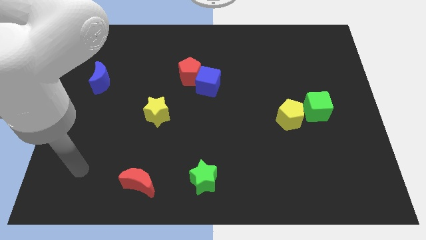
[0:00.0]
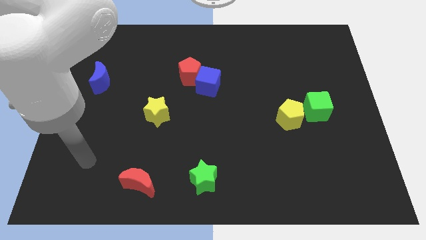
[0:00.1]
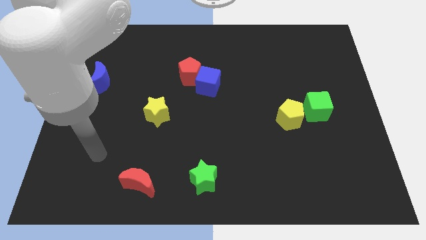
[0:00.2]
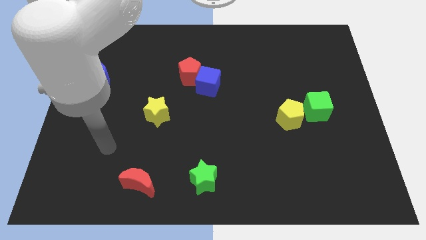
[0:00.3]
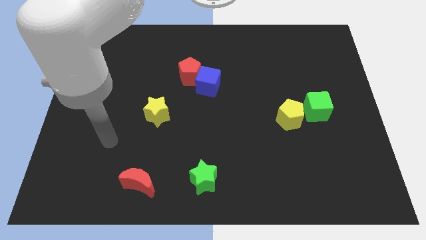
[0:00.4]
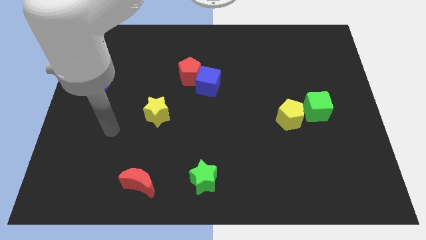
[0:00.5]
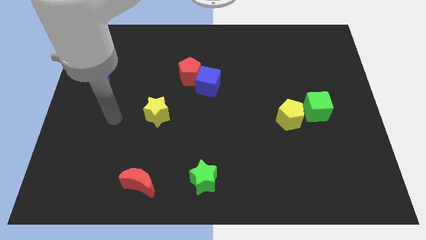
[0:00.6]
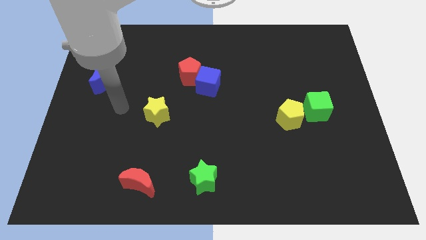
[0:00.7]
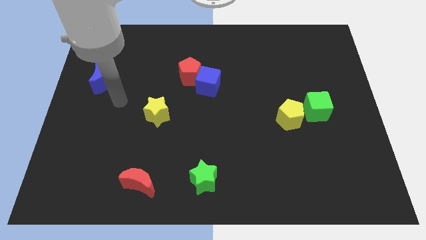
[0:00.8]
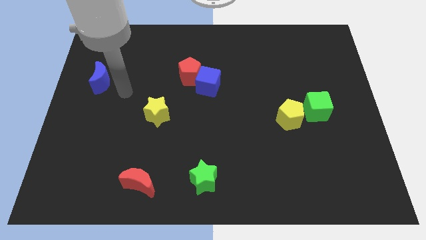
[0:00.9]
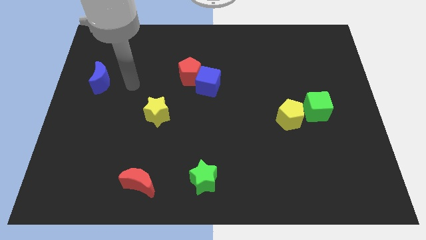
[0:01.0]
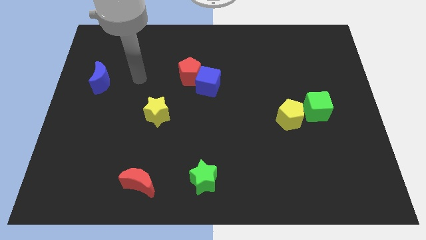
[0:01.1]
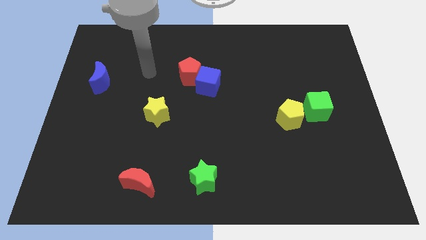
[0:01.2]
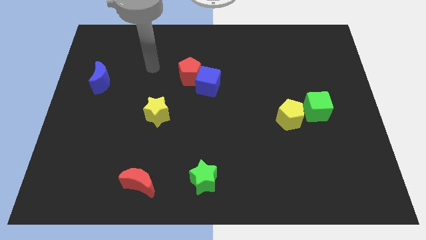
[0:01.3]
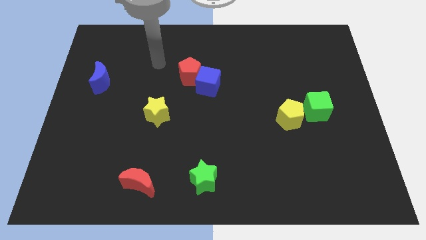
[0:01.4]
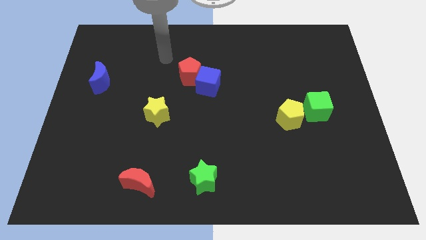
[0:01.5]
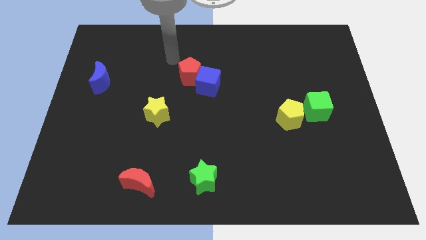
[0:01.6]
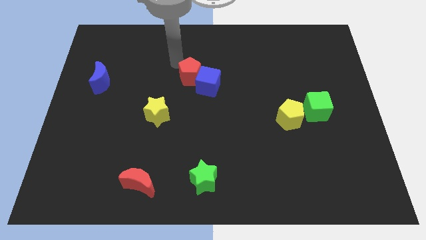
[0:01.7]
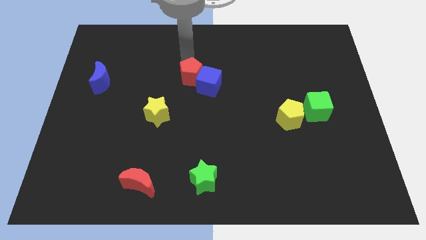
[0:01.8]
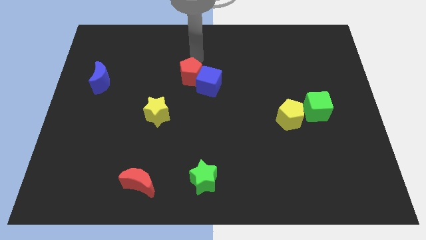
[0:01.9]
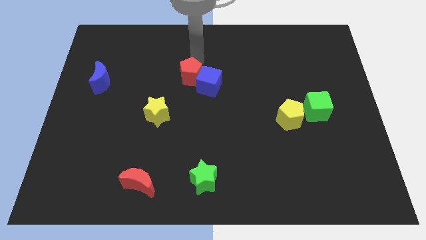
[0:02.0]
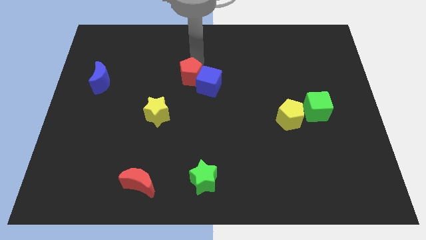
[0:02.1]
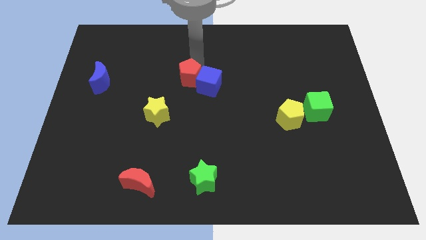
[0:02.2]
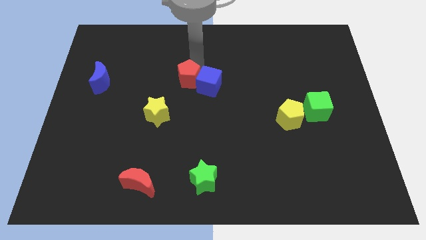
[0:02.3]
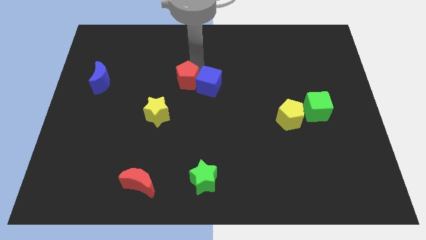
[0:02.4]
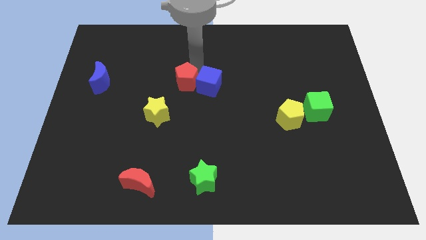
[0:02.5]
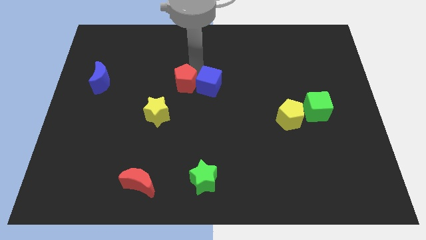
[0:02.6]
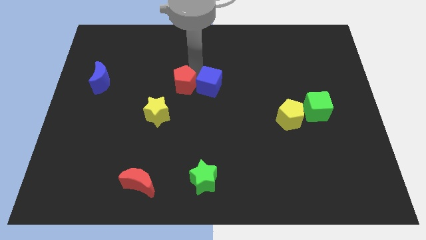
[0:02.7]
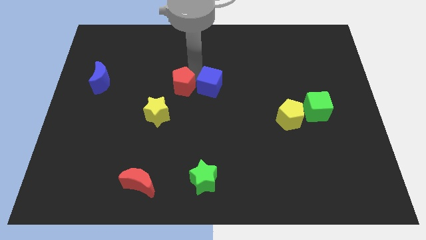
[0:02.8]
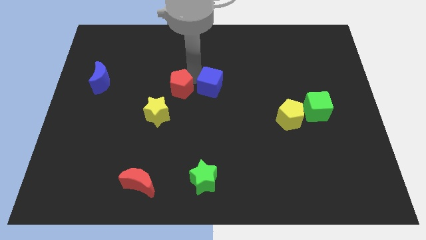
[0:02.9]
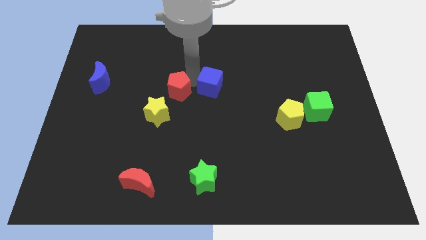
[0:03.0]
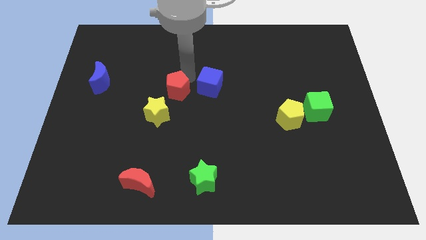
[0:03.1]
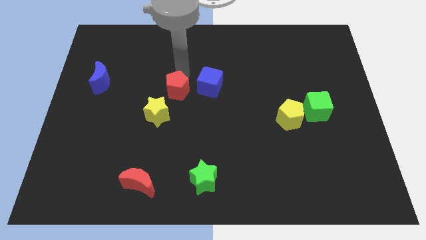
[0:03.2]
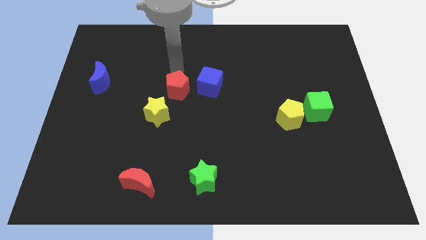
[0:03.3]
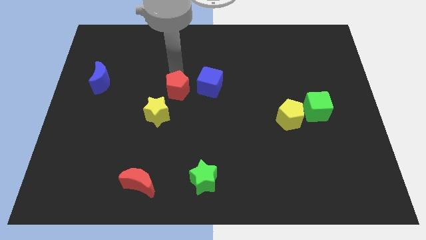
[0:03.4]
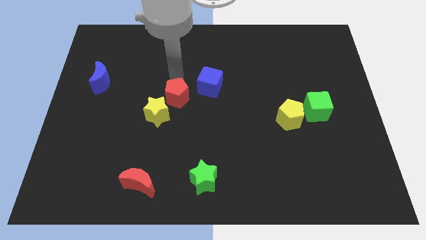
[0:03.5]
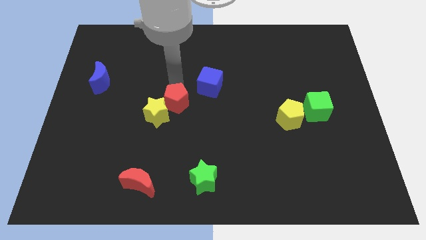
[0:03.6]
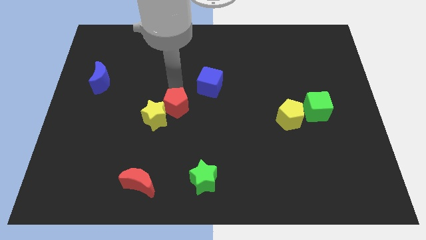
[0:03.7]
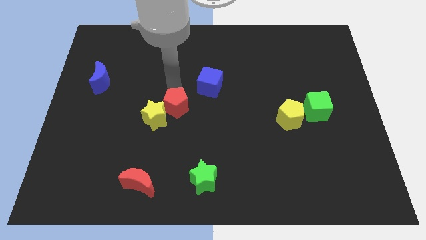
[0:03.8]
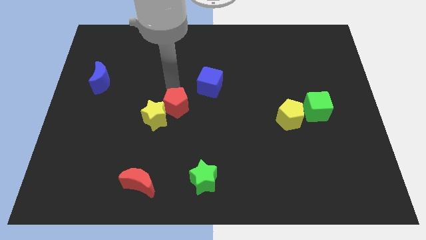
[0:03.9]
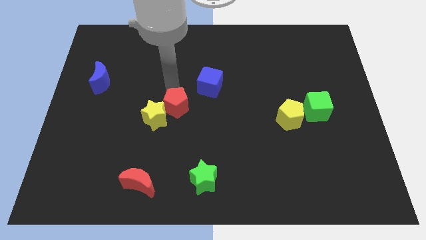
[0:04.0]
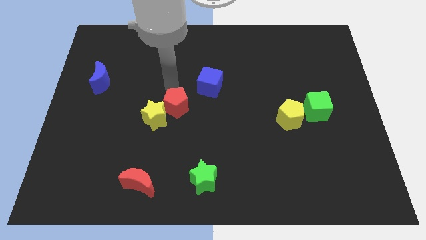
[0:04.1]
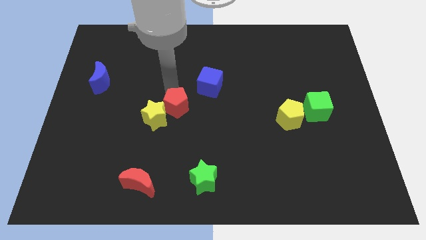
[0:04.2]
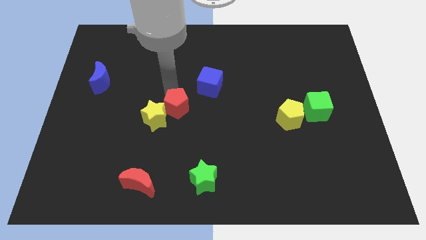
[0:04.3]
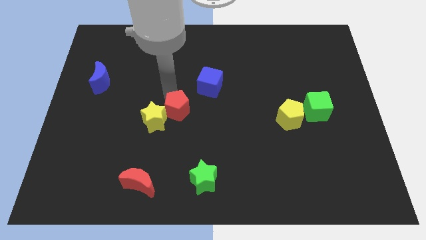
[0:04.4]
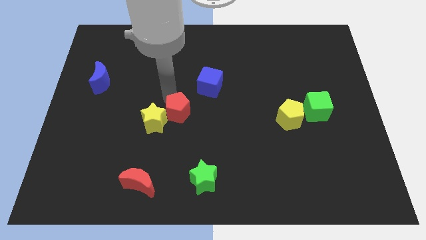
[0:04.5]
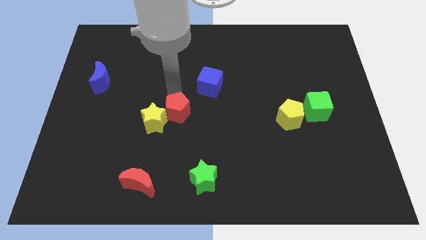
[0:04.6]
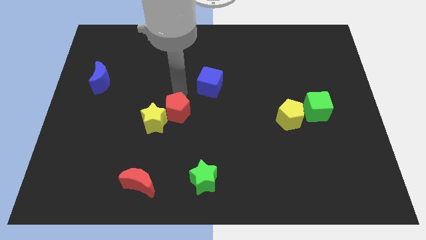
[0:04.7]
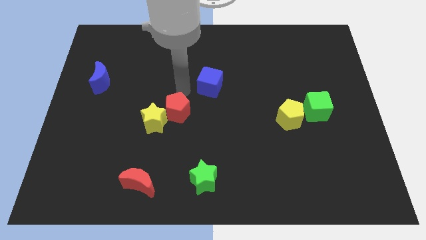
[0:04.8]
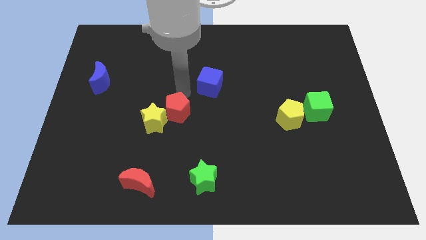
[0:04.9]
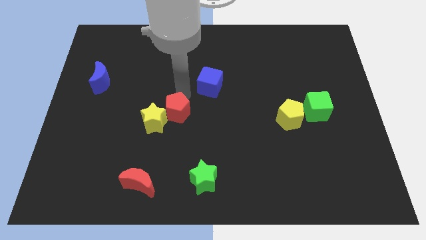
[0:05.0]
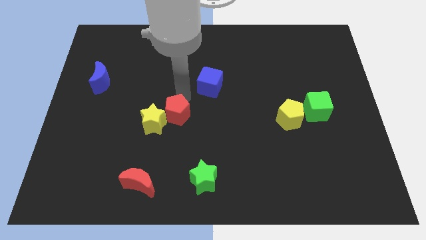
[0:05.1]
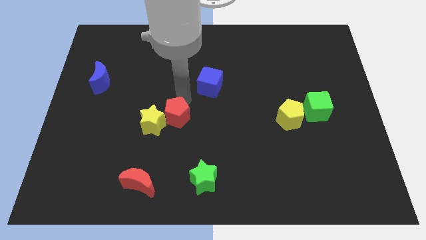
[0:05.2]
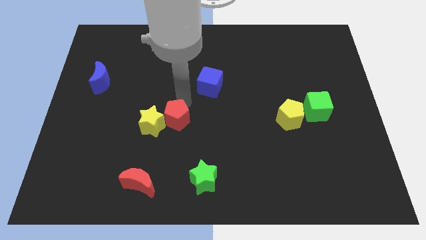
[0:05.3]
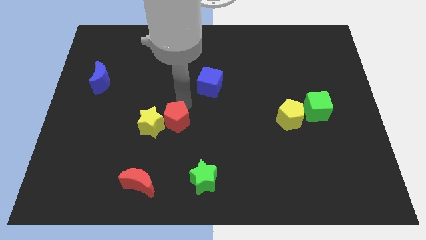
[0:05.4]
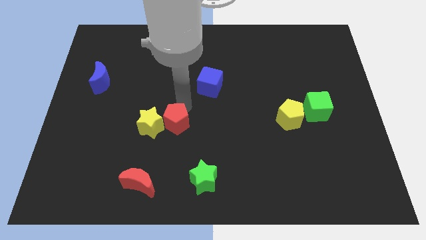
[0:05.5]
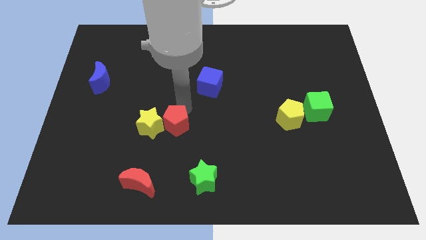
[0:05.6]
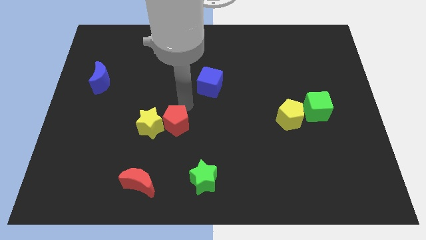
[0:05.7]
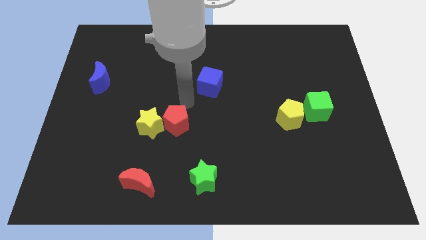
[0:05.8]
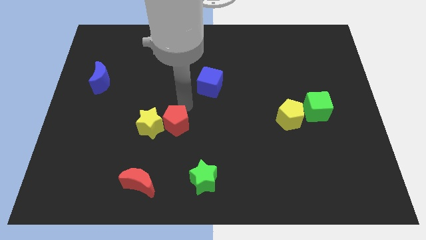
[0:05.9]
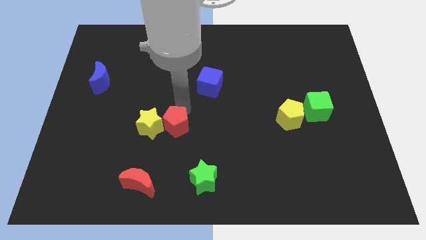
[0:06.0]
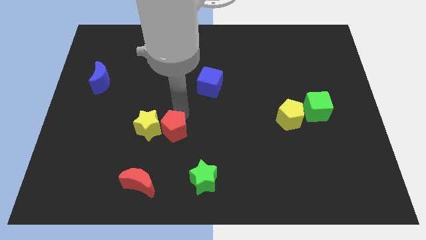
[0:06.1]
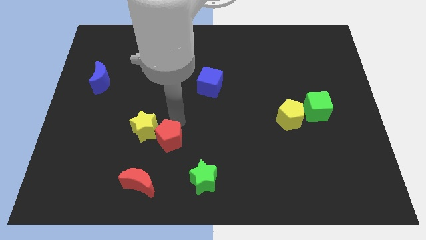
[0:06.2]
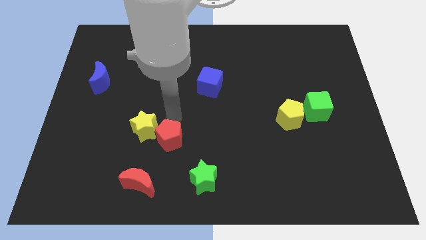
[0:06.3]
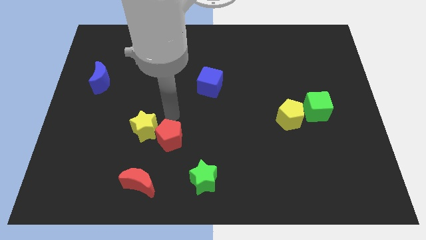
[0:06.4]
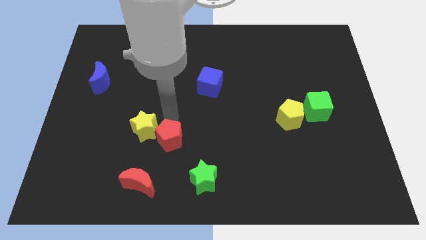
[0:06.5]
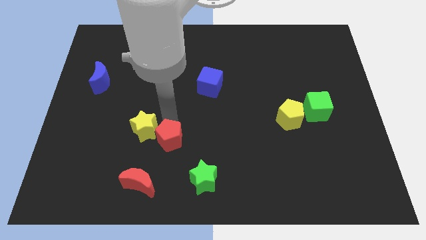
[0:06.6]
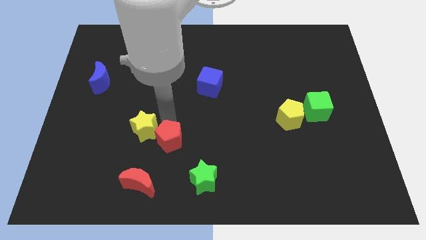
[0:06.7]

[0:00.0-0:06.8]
slide the red pentagon to the top right side of the red moon

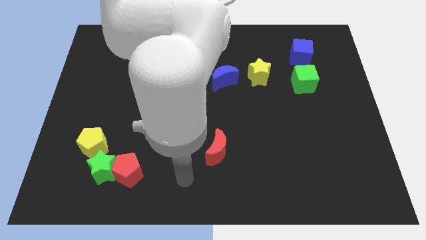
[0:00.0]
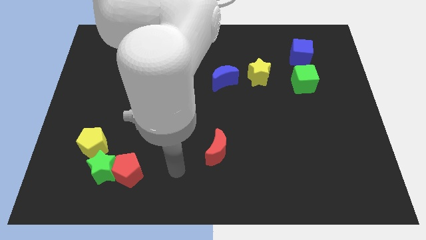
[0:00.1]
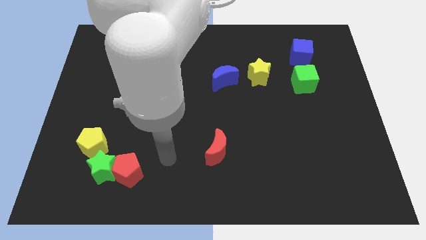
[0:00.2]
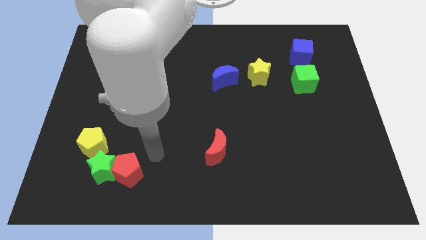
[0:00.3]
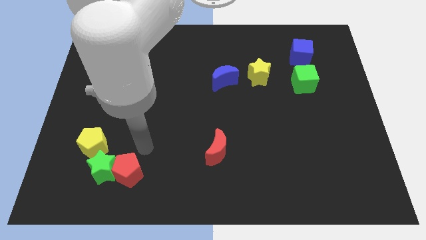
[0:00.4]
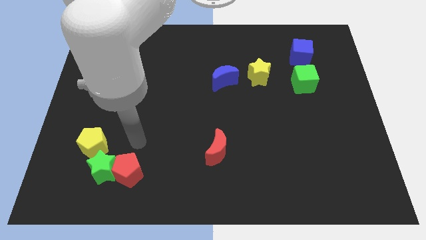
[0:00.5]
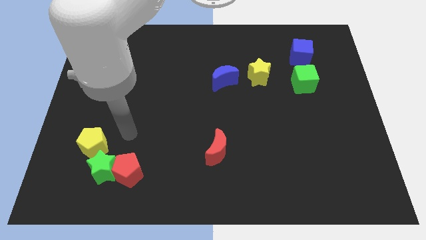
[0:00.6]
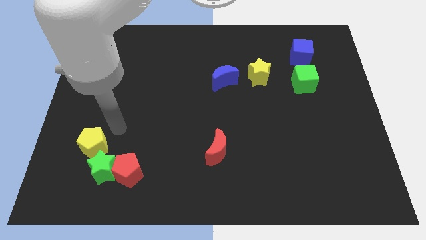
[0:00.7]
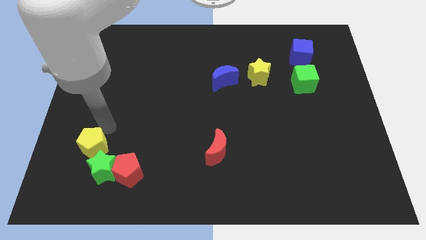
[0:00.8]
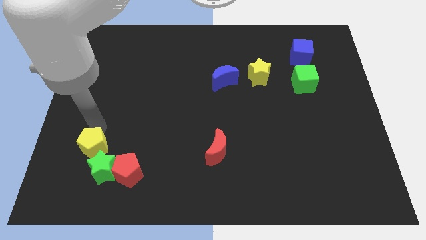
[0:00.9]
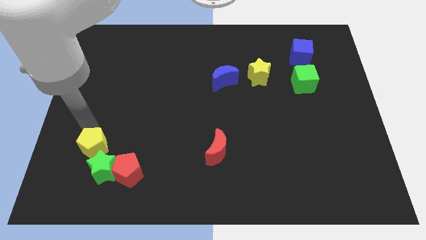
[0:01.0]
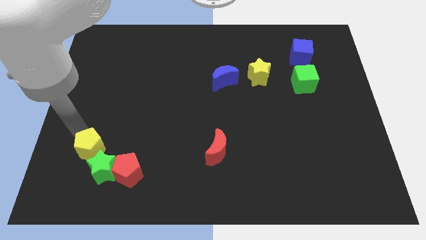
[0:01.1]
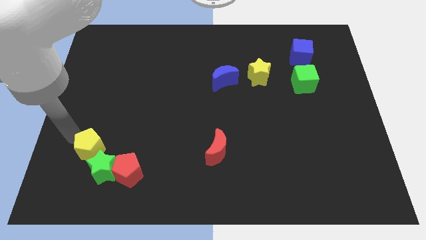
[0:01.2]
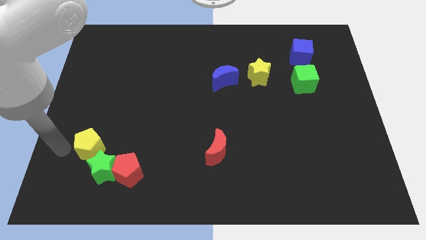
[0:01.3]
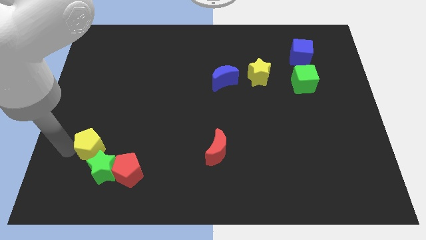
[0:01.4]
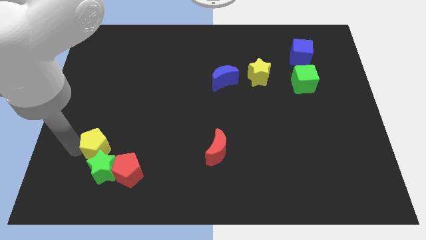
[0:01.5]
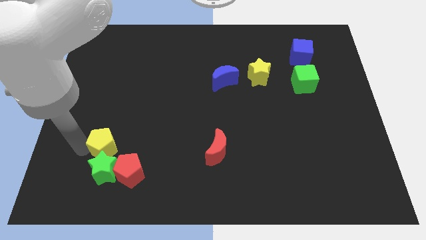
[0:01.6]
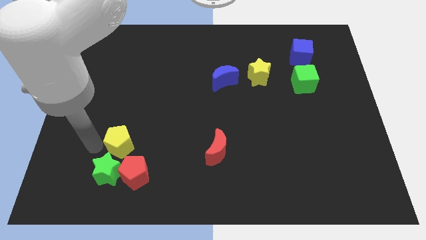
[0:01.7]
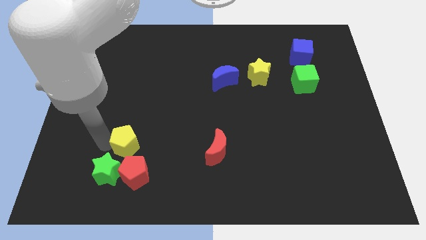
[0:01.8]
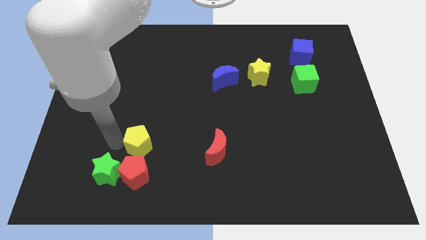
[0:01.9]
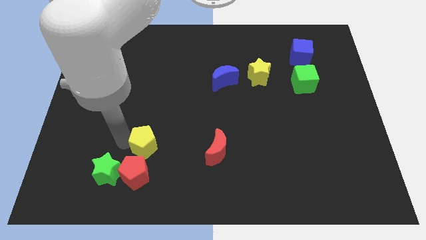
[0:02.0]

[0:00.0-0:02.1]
push the yellow pentagon to the top right of the red pentagon
